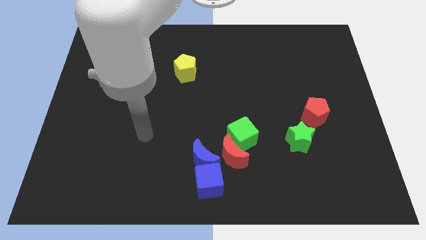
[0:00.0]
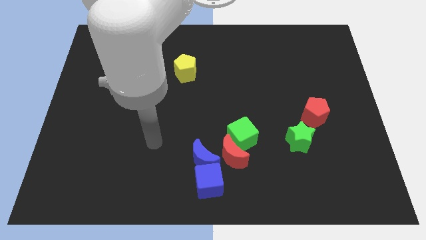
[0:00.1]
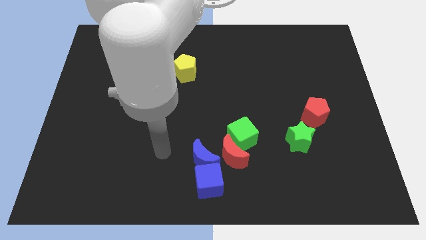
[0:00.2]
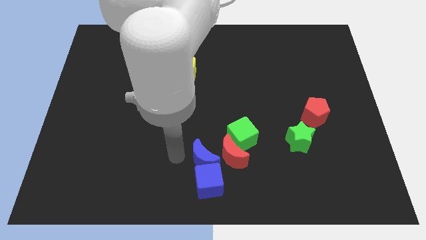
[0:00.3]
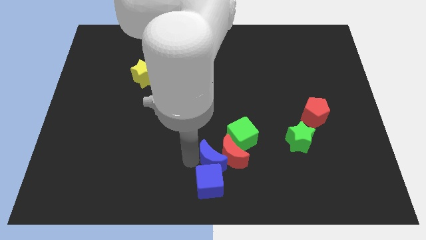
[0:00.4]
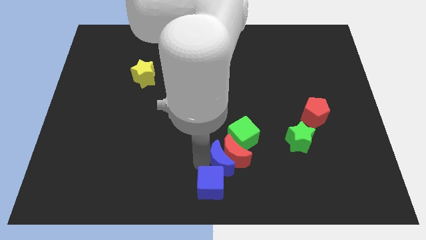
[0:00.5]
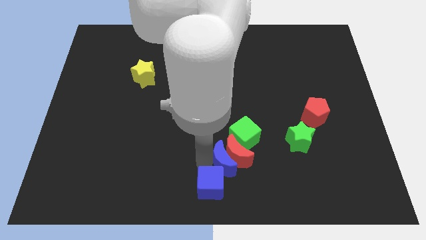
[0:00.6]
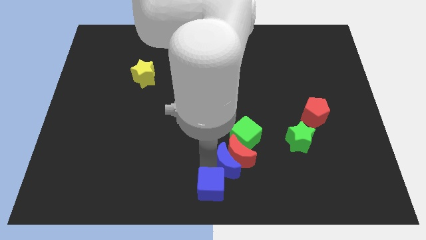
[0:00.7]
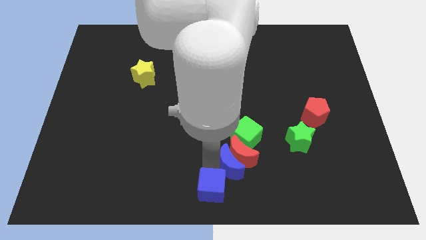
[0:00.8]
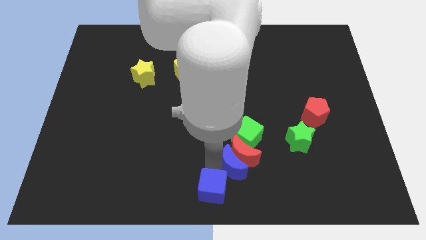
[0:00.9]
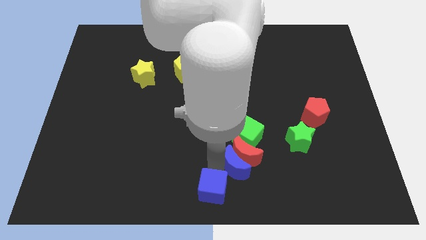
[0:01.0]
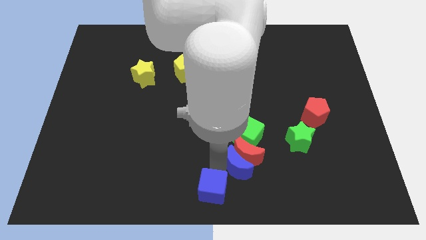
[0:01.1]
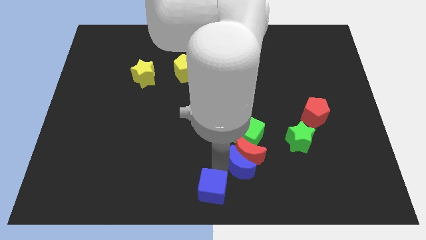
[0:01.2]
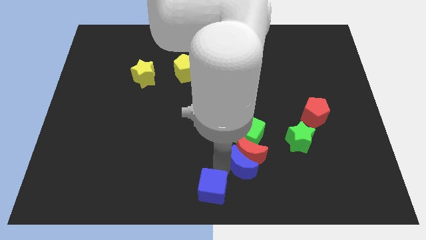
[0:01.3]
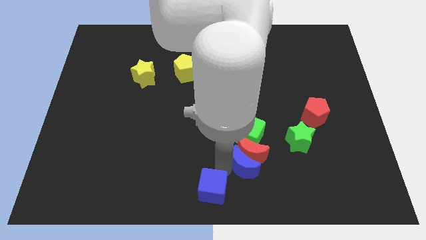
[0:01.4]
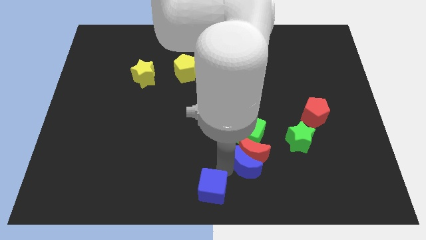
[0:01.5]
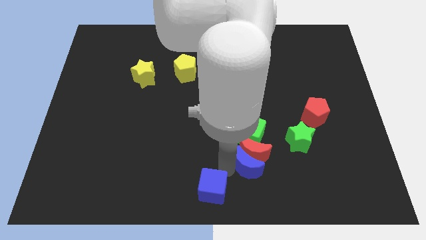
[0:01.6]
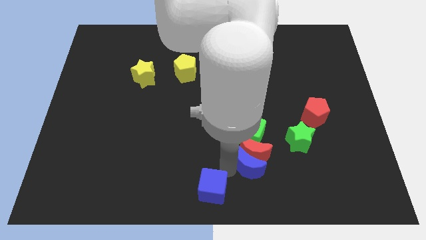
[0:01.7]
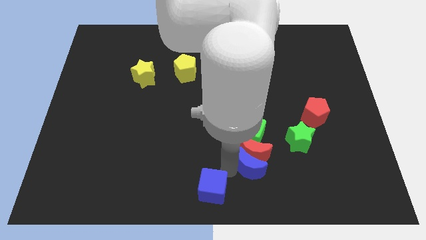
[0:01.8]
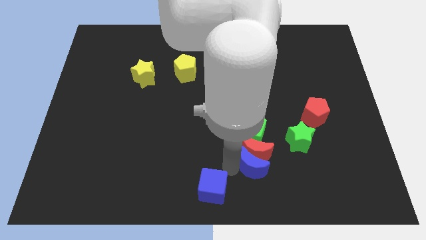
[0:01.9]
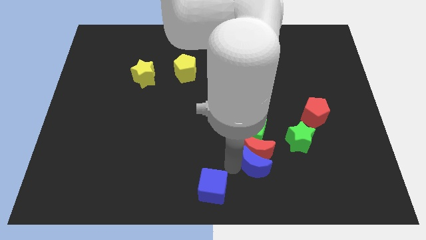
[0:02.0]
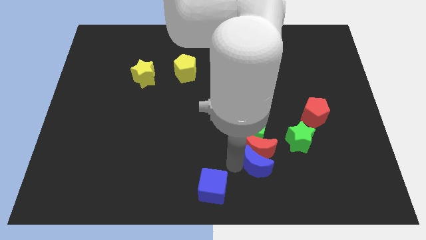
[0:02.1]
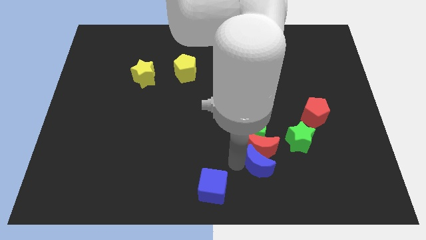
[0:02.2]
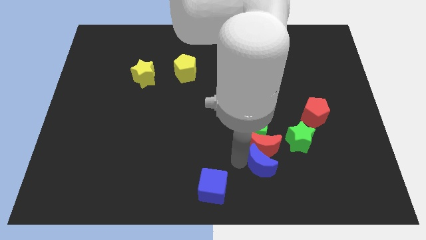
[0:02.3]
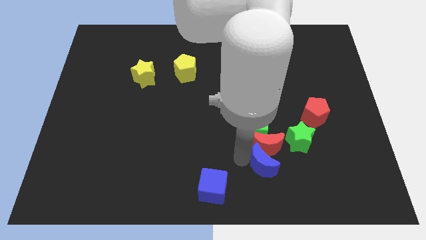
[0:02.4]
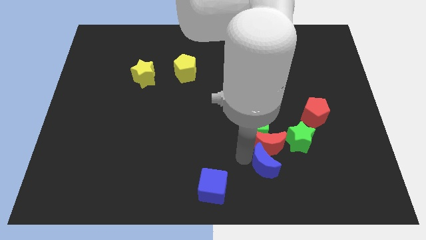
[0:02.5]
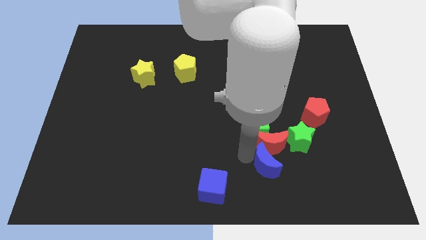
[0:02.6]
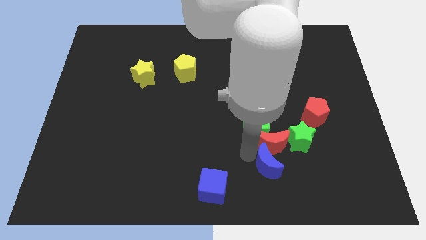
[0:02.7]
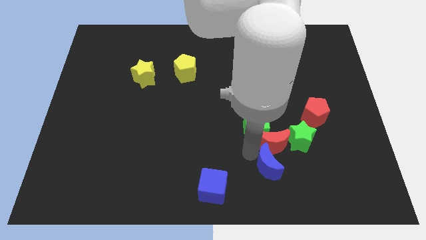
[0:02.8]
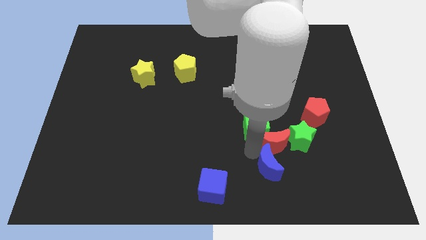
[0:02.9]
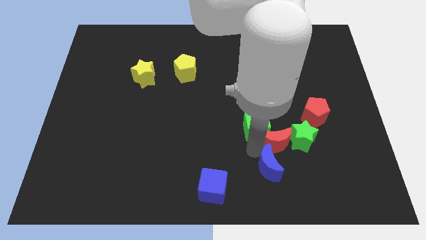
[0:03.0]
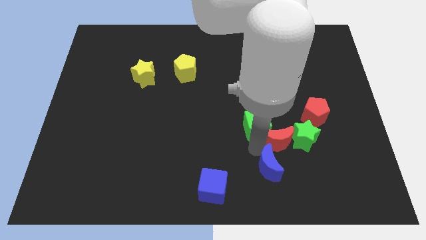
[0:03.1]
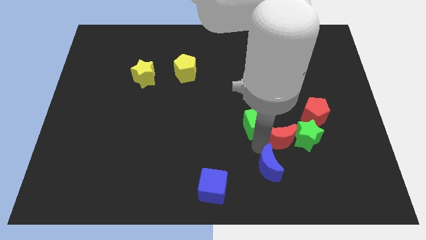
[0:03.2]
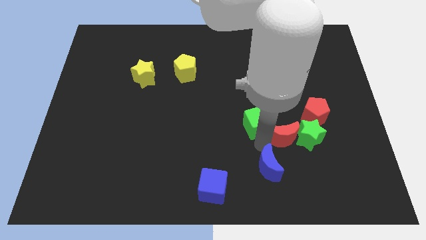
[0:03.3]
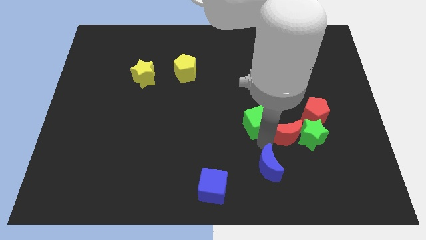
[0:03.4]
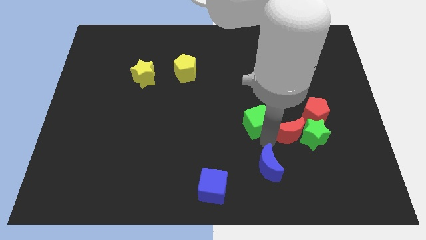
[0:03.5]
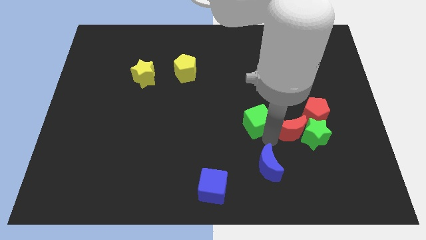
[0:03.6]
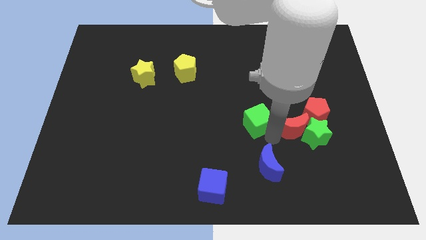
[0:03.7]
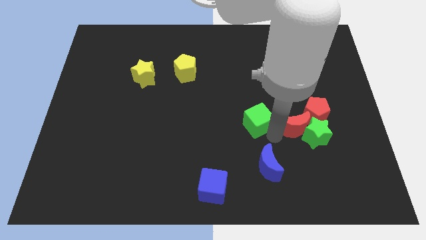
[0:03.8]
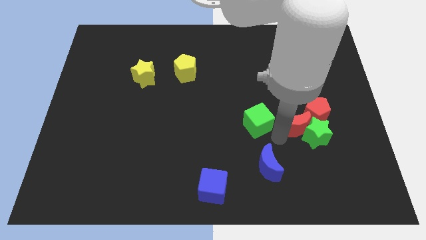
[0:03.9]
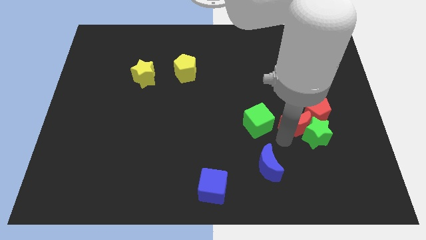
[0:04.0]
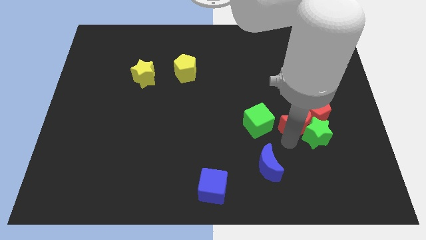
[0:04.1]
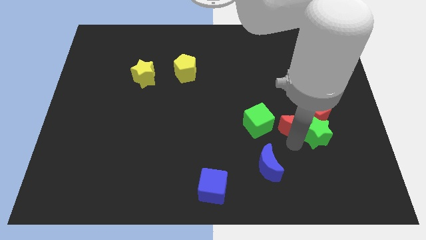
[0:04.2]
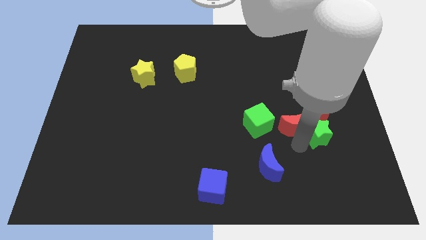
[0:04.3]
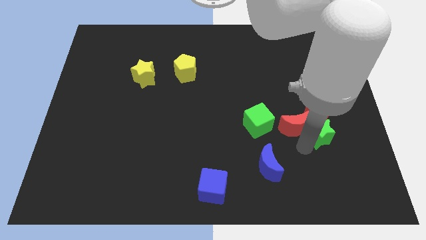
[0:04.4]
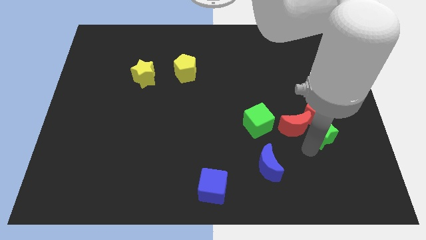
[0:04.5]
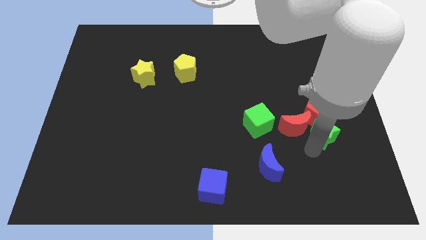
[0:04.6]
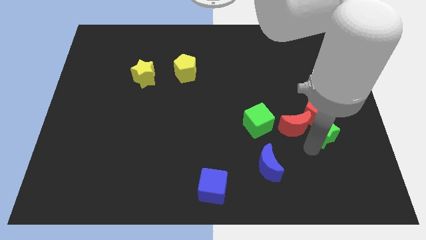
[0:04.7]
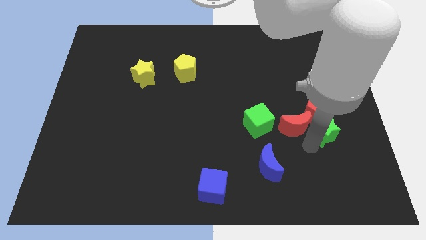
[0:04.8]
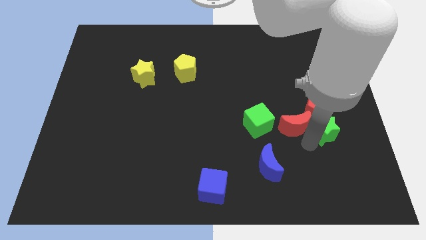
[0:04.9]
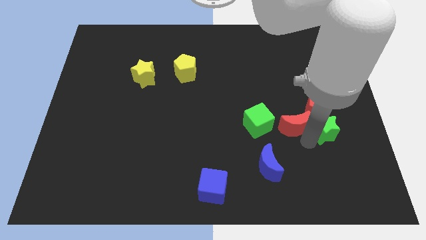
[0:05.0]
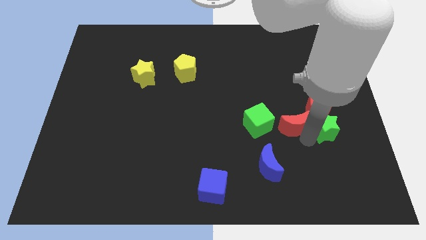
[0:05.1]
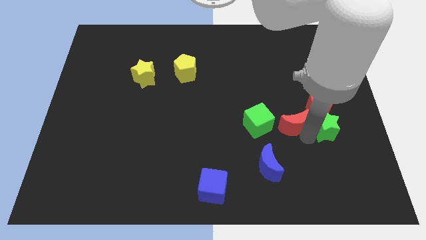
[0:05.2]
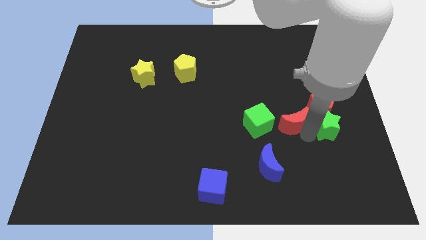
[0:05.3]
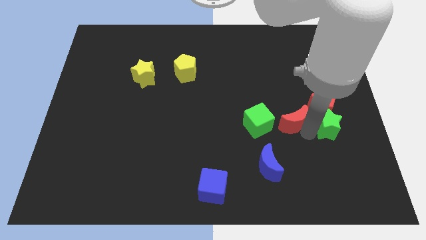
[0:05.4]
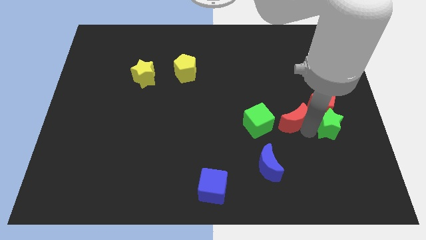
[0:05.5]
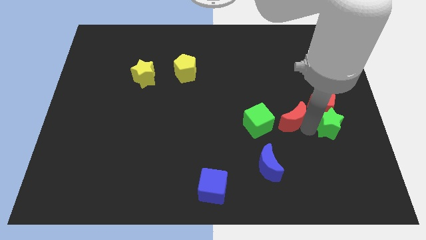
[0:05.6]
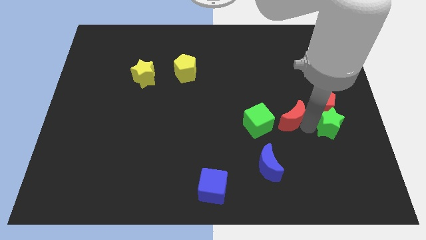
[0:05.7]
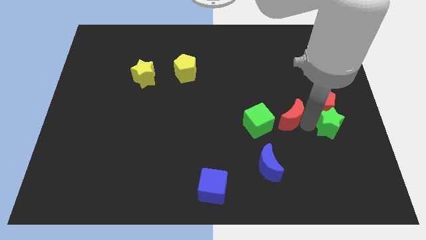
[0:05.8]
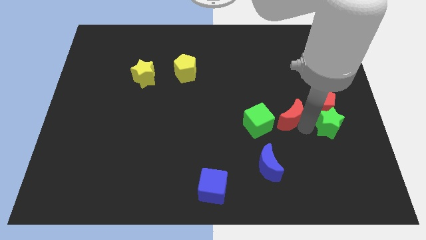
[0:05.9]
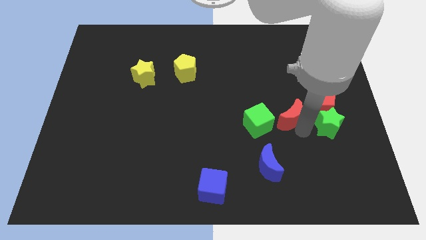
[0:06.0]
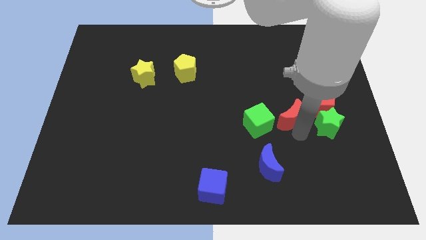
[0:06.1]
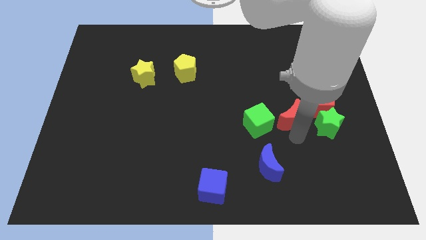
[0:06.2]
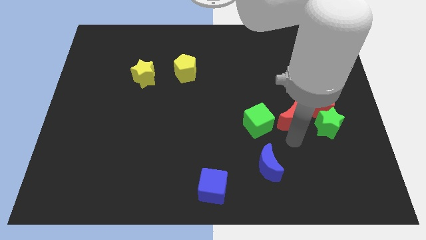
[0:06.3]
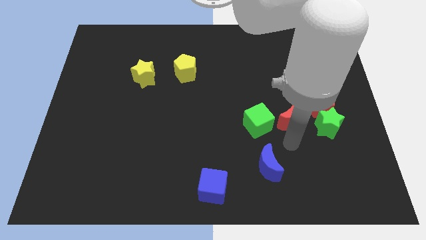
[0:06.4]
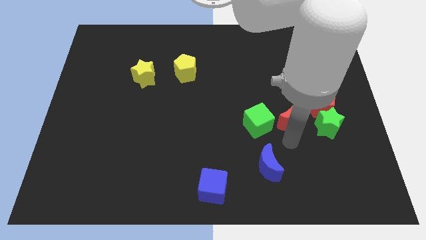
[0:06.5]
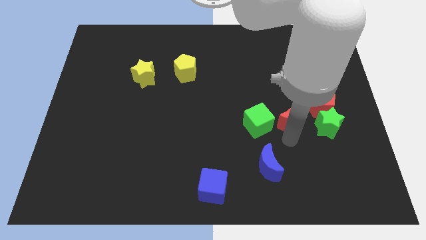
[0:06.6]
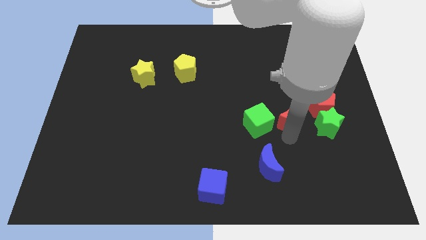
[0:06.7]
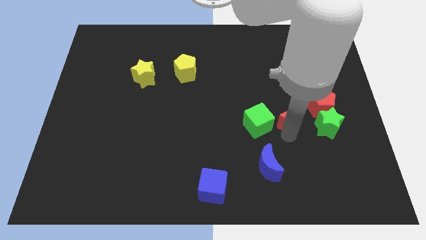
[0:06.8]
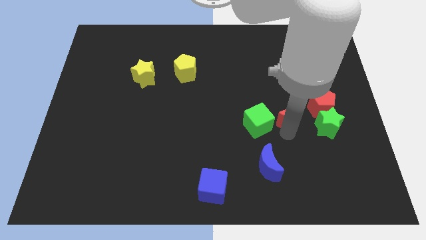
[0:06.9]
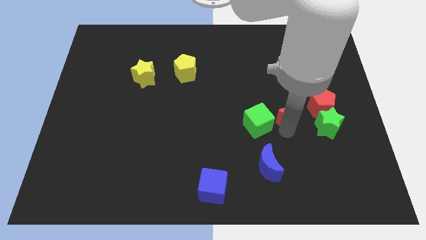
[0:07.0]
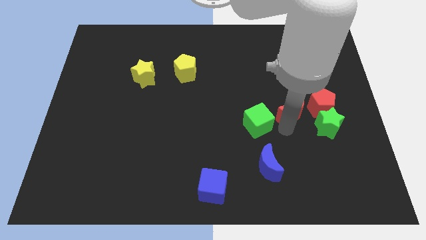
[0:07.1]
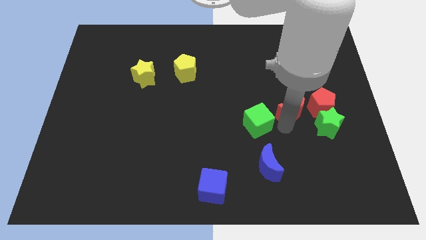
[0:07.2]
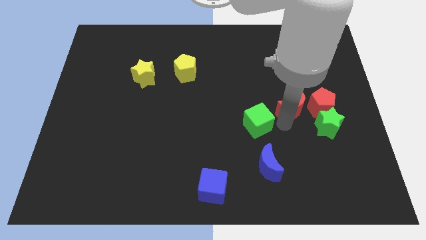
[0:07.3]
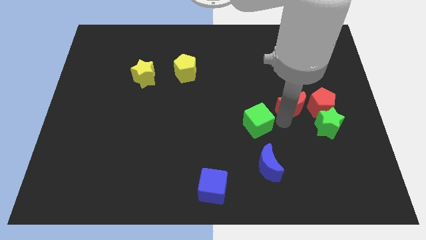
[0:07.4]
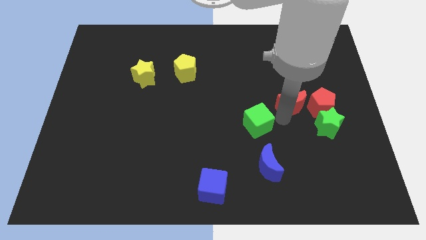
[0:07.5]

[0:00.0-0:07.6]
push the red moon upwards and to the right

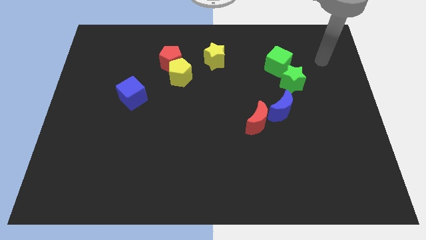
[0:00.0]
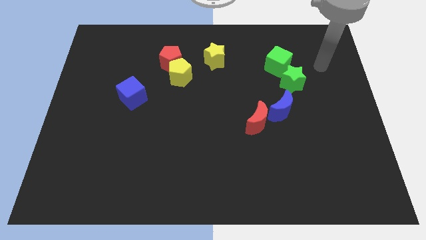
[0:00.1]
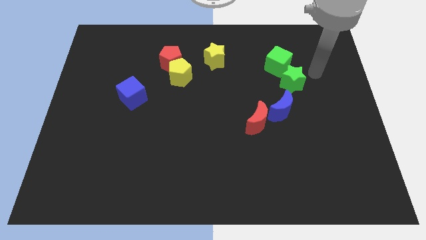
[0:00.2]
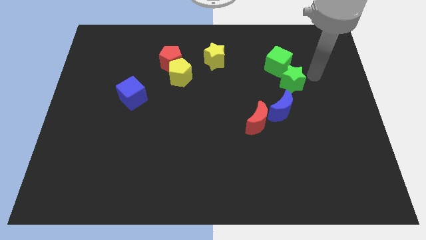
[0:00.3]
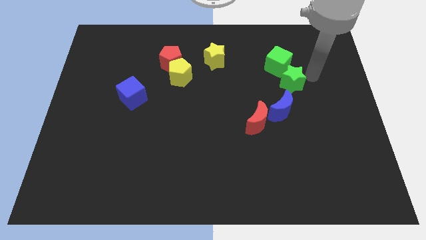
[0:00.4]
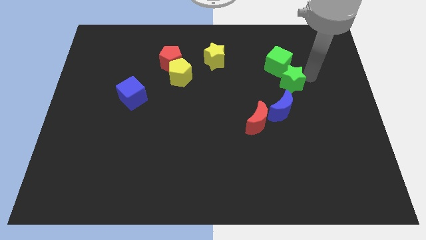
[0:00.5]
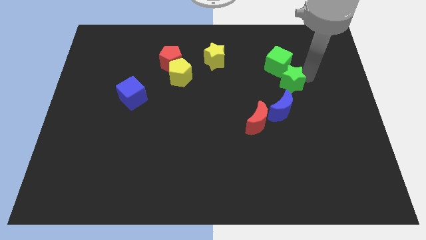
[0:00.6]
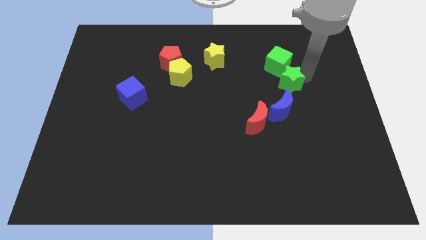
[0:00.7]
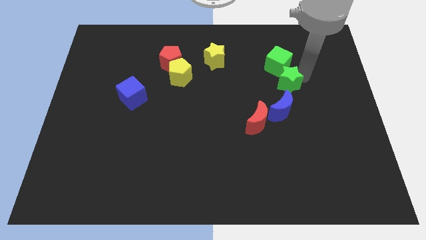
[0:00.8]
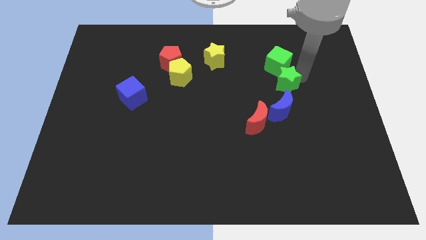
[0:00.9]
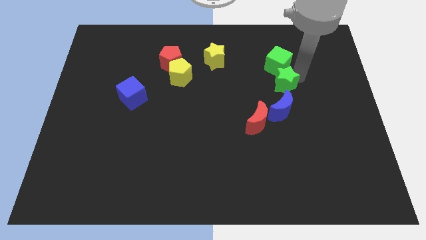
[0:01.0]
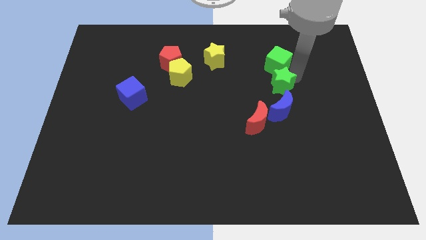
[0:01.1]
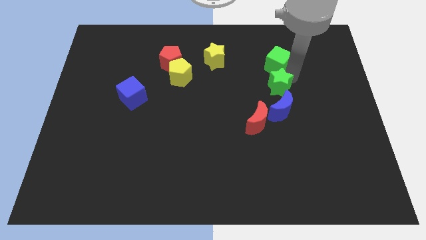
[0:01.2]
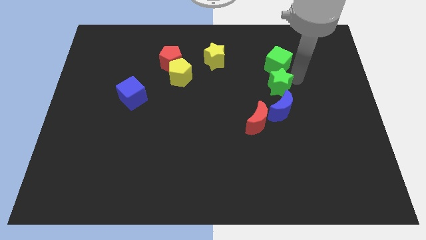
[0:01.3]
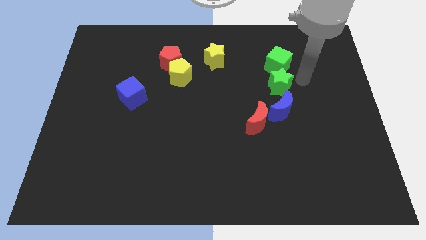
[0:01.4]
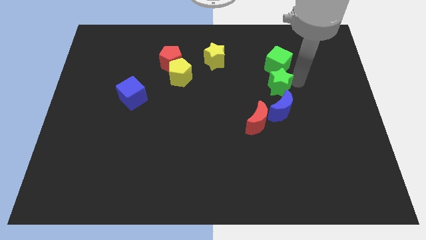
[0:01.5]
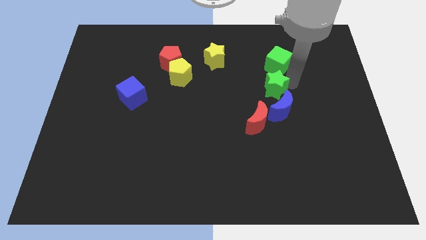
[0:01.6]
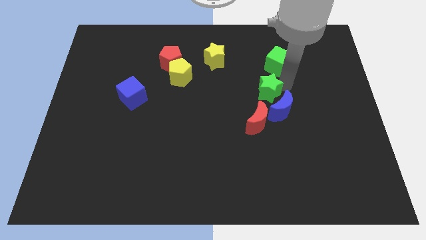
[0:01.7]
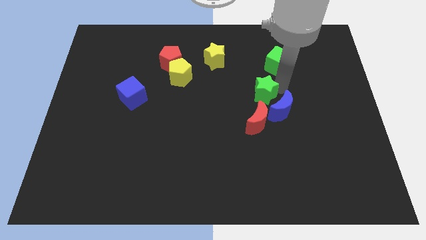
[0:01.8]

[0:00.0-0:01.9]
slightly push the green star diagonally downwards and to the left
